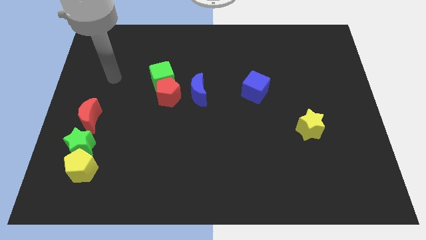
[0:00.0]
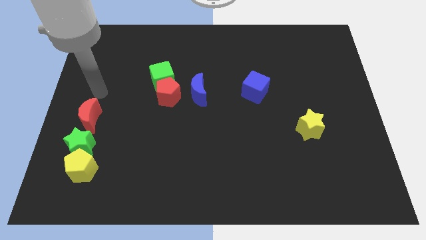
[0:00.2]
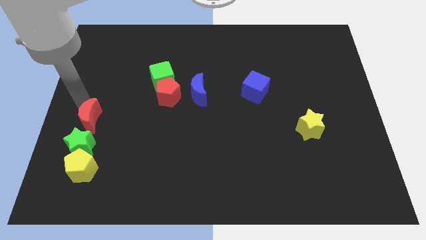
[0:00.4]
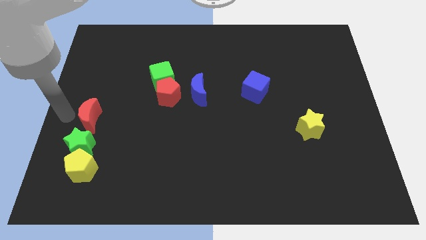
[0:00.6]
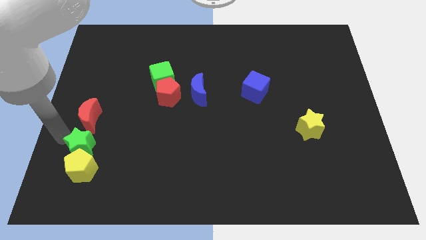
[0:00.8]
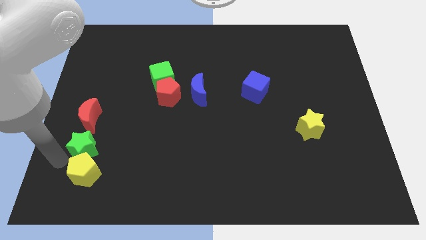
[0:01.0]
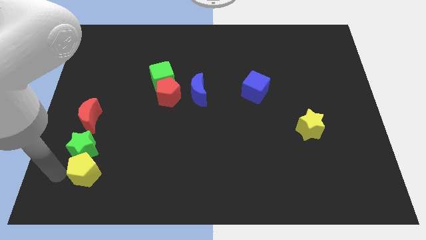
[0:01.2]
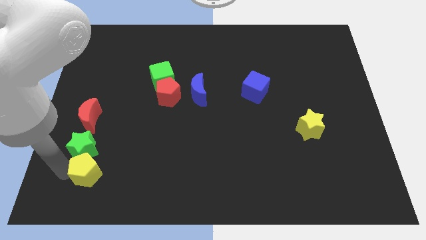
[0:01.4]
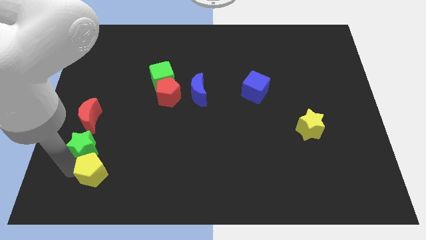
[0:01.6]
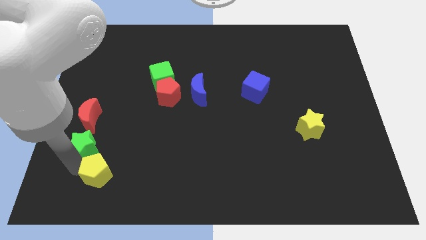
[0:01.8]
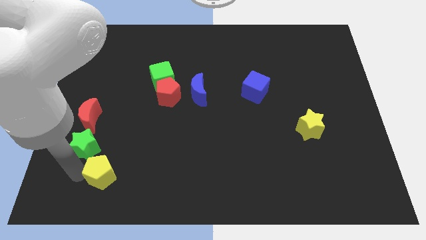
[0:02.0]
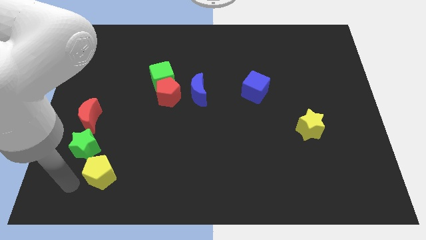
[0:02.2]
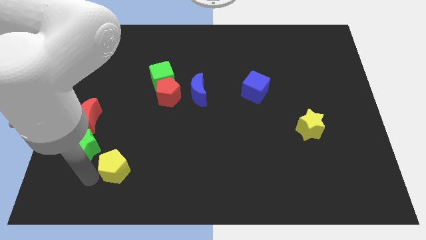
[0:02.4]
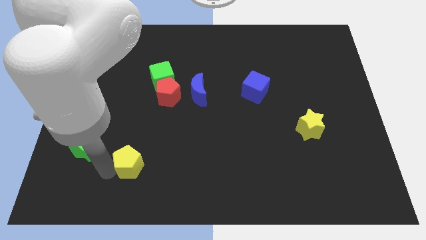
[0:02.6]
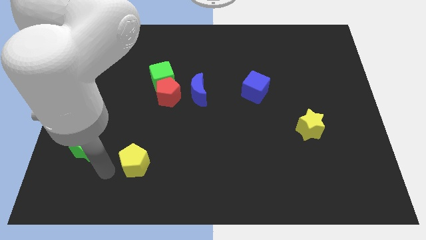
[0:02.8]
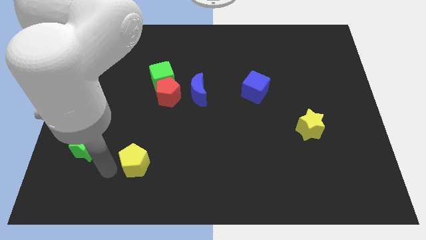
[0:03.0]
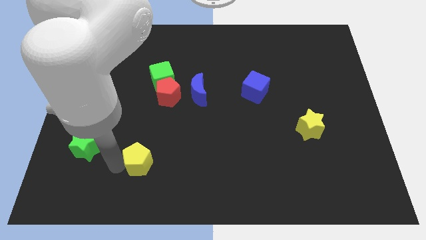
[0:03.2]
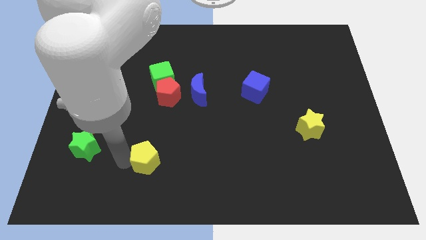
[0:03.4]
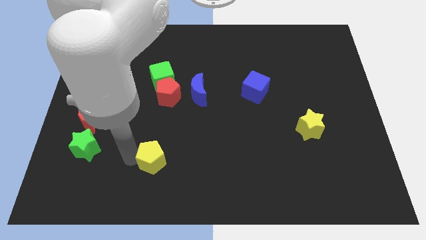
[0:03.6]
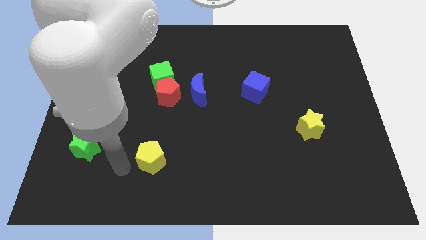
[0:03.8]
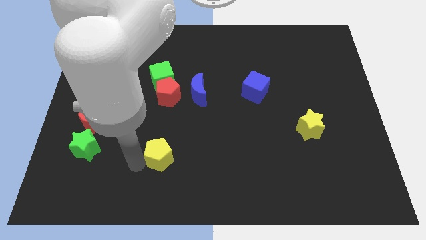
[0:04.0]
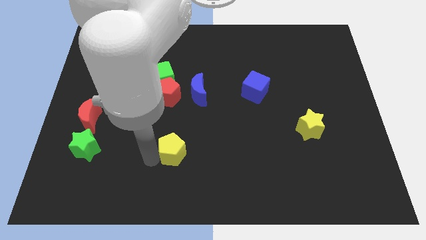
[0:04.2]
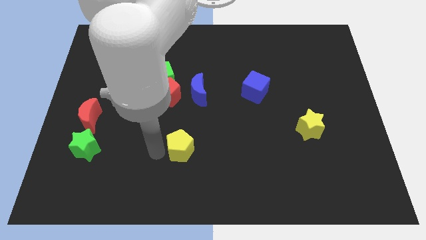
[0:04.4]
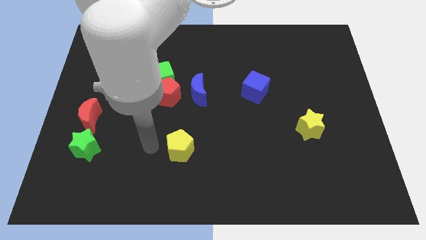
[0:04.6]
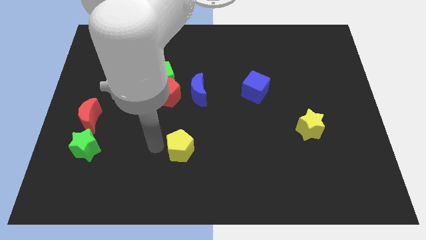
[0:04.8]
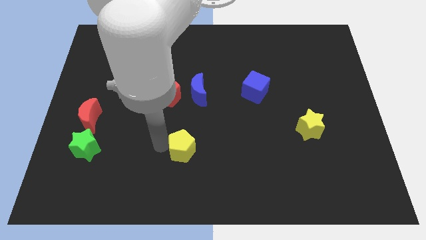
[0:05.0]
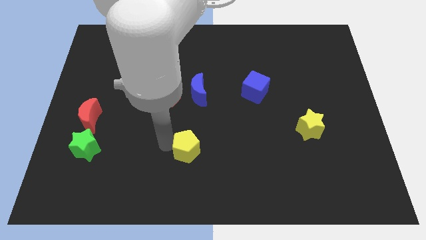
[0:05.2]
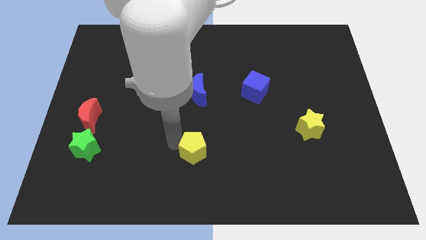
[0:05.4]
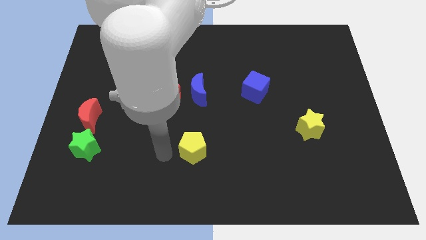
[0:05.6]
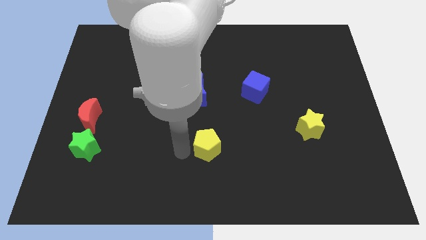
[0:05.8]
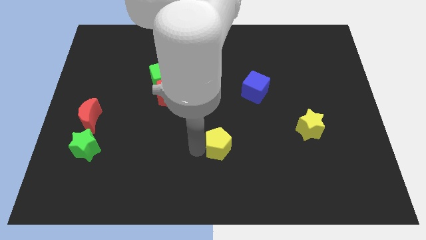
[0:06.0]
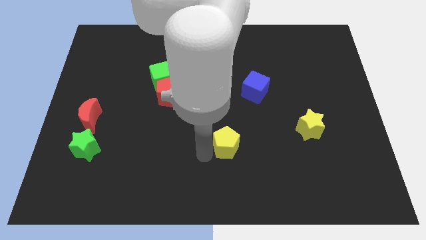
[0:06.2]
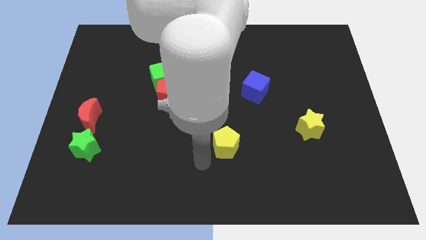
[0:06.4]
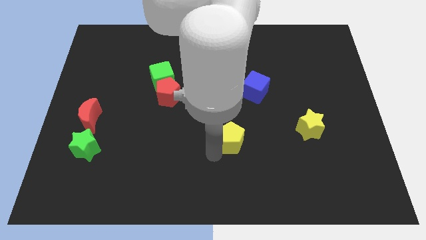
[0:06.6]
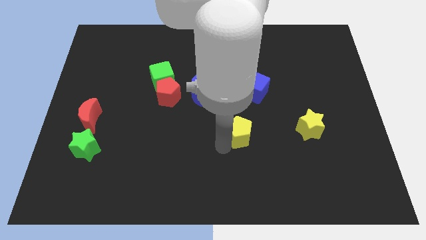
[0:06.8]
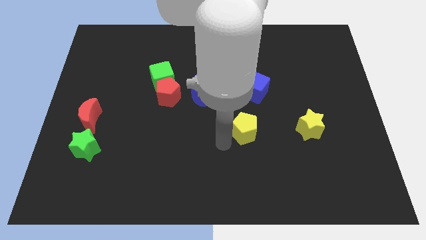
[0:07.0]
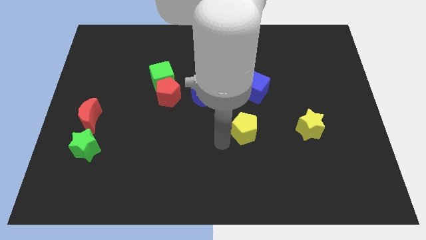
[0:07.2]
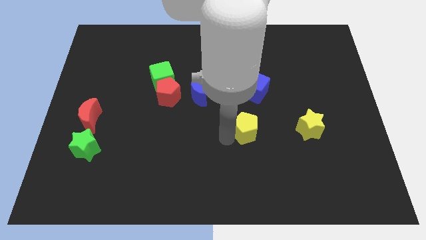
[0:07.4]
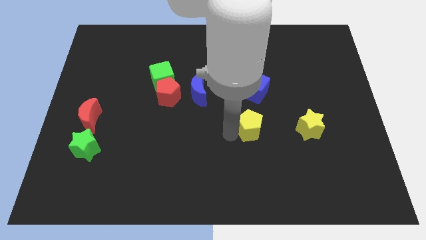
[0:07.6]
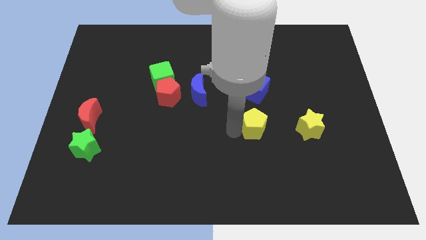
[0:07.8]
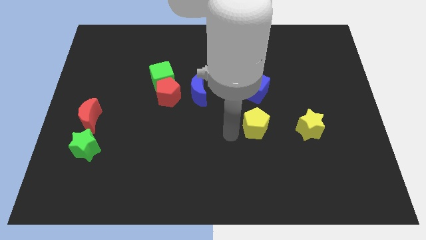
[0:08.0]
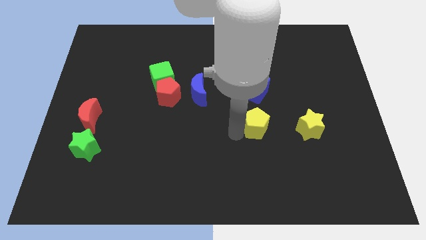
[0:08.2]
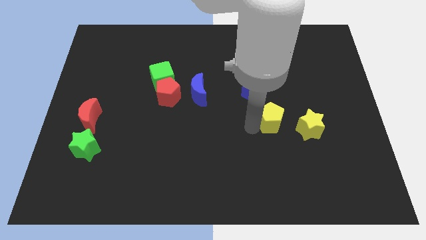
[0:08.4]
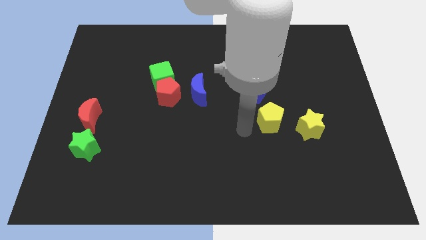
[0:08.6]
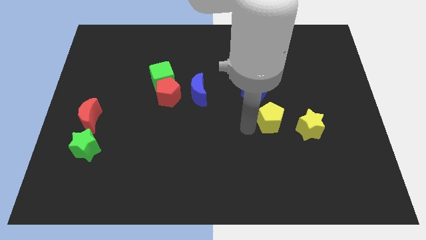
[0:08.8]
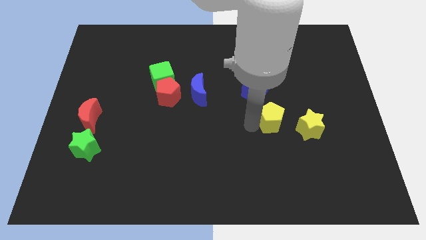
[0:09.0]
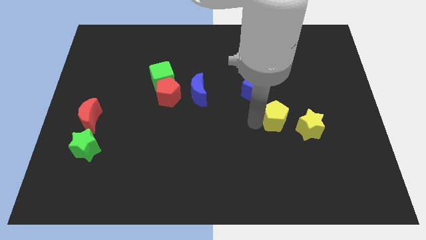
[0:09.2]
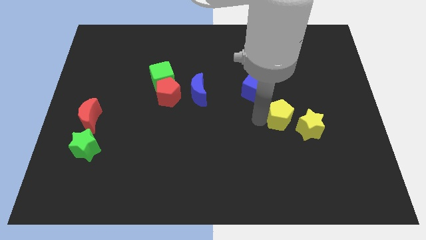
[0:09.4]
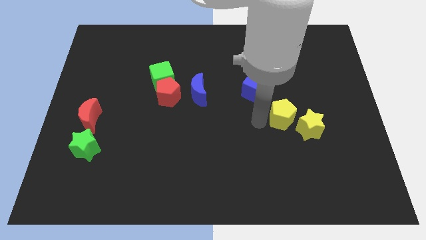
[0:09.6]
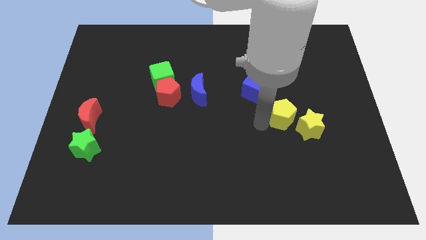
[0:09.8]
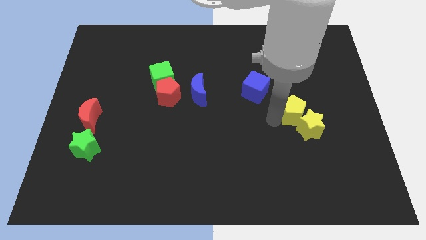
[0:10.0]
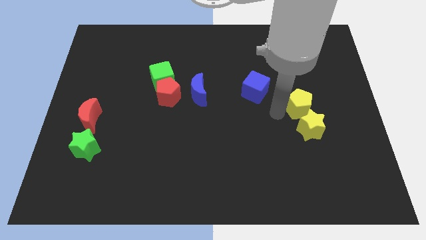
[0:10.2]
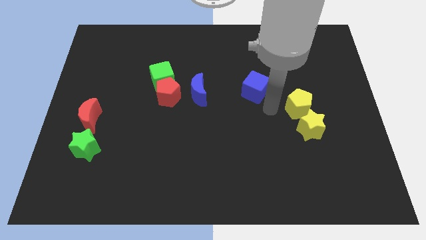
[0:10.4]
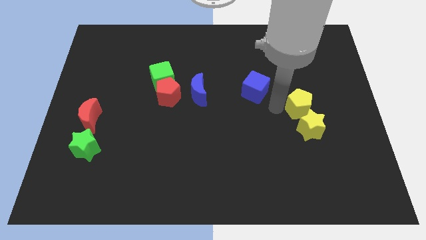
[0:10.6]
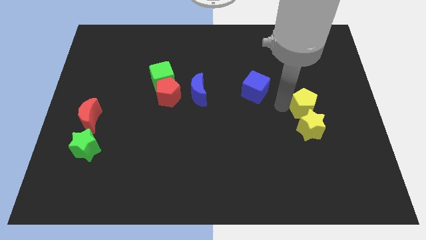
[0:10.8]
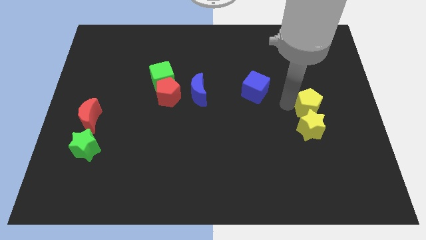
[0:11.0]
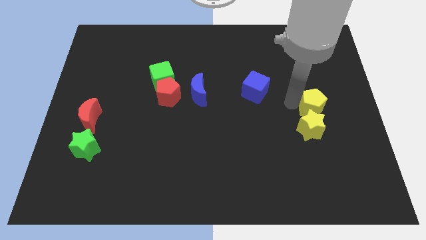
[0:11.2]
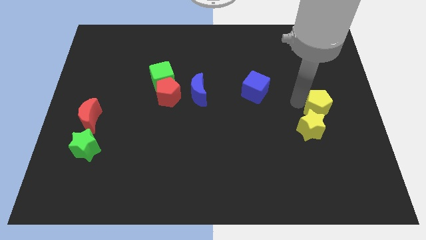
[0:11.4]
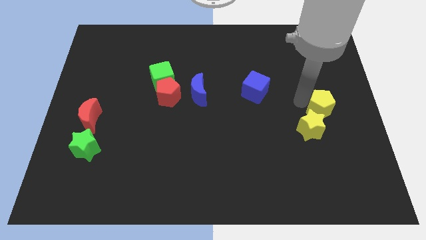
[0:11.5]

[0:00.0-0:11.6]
slide the yellow pentagon to the center right
